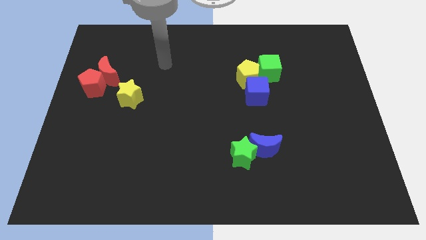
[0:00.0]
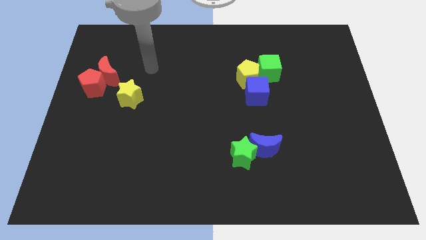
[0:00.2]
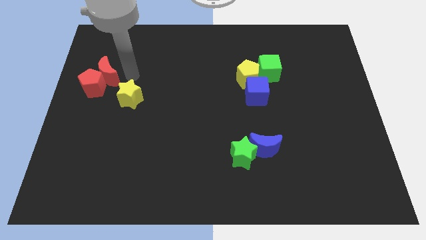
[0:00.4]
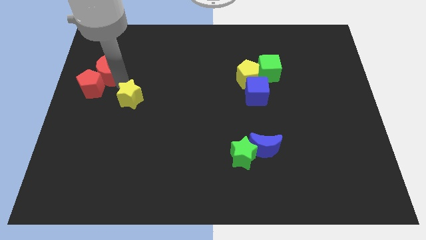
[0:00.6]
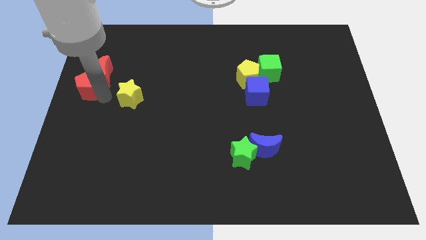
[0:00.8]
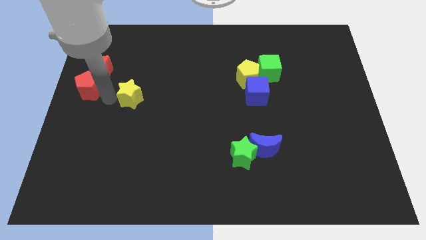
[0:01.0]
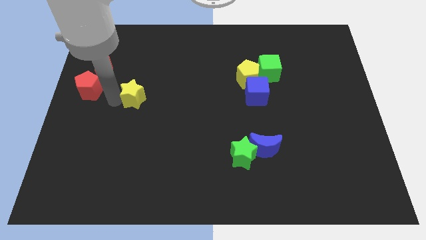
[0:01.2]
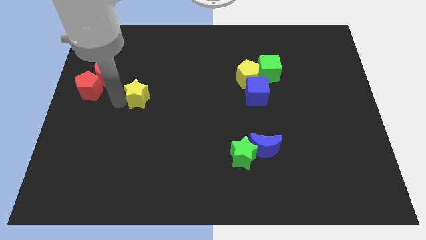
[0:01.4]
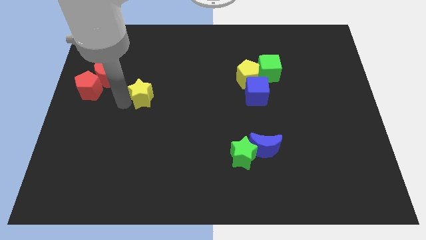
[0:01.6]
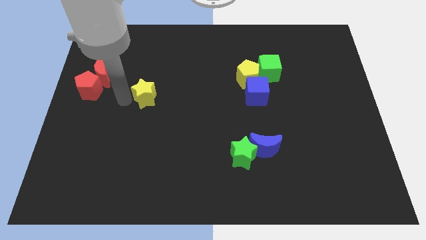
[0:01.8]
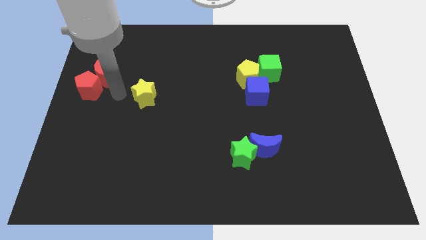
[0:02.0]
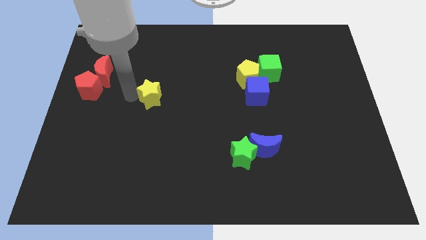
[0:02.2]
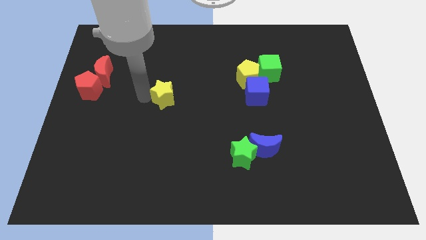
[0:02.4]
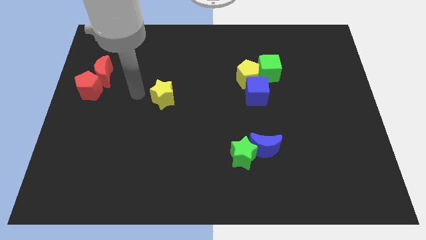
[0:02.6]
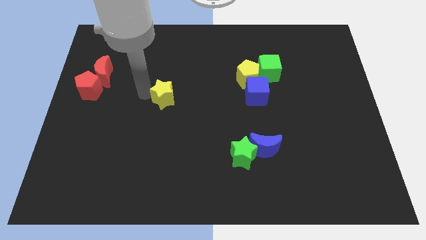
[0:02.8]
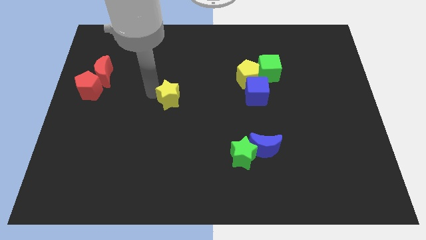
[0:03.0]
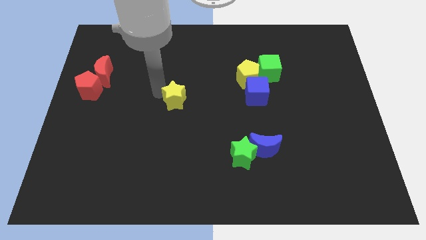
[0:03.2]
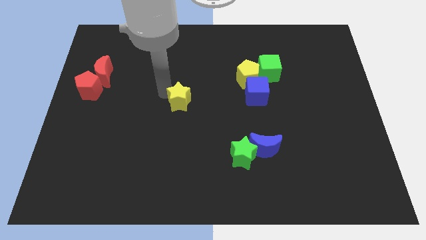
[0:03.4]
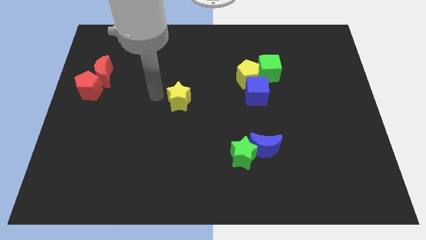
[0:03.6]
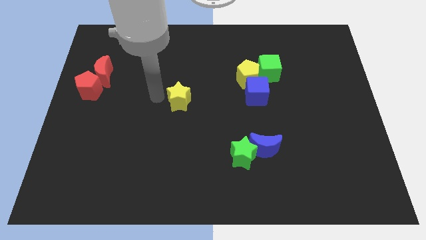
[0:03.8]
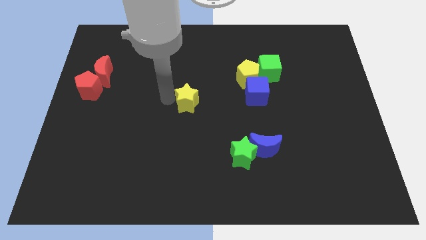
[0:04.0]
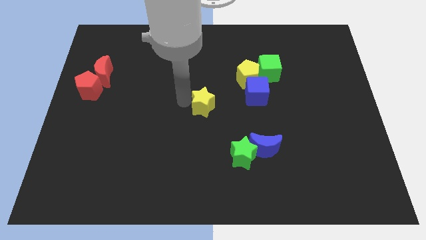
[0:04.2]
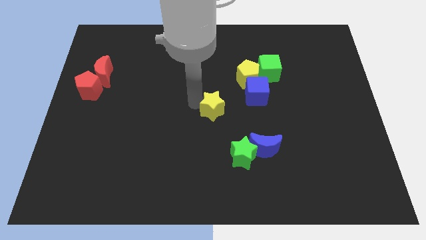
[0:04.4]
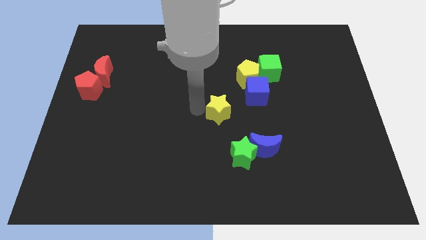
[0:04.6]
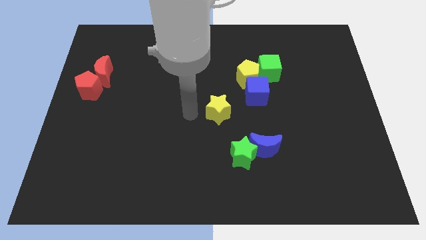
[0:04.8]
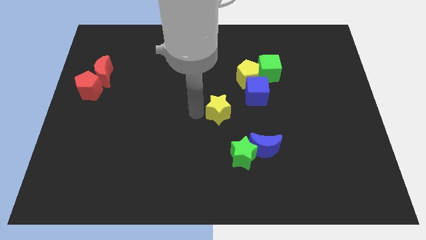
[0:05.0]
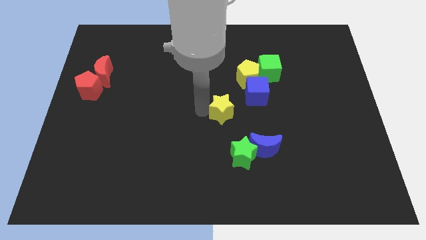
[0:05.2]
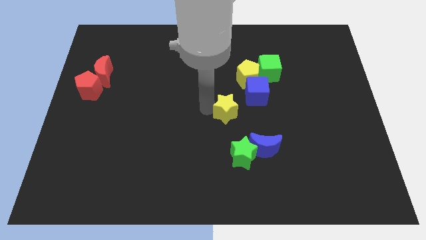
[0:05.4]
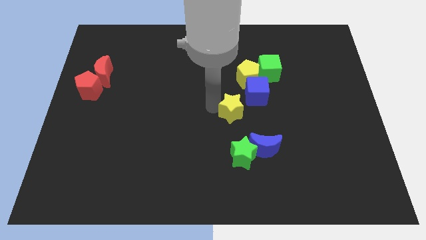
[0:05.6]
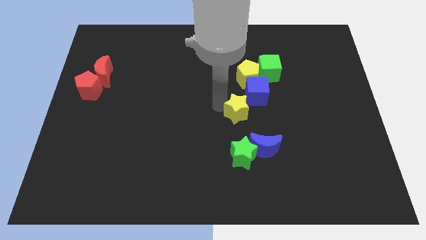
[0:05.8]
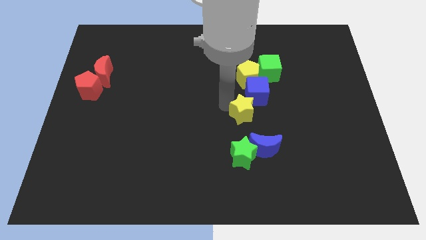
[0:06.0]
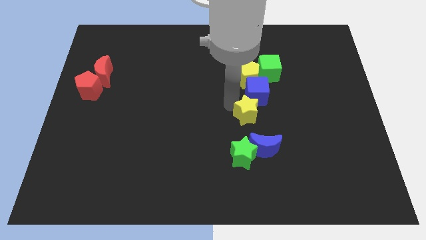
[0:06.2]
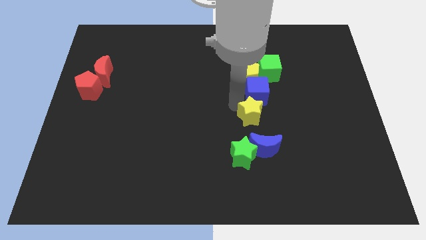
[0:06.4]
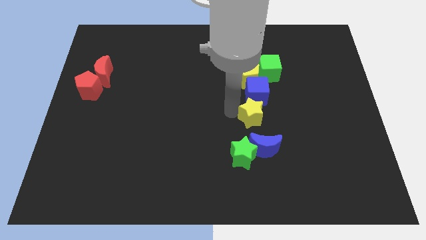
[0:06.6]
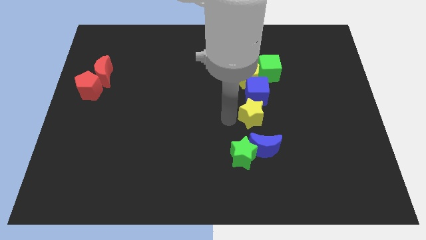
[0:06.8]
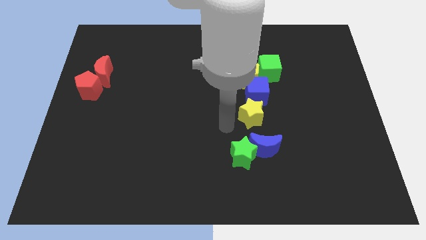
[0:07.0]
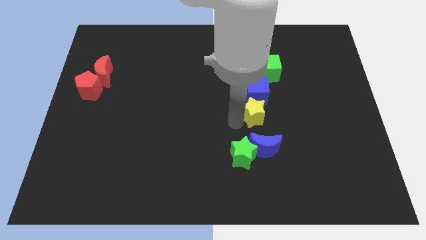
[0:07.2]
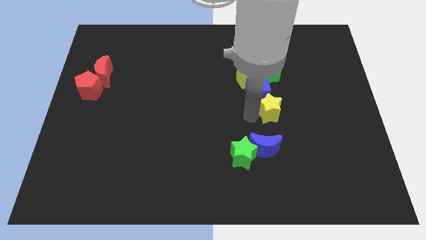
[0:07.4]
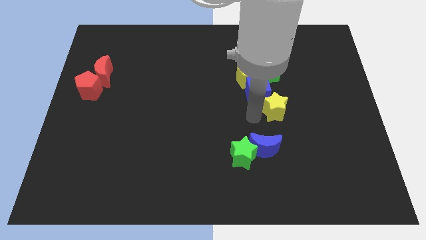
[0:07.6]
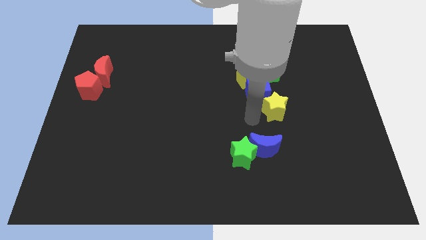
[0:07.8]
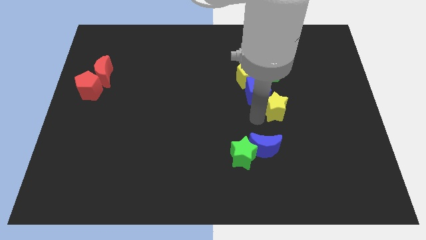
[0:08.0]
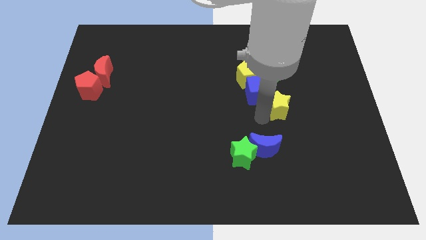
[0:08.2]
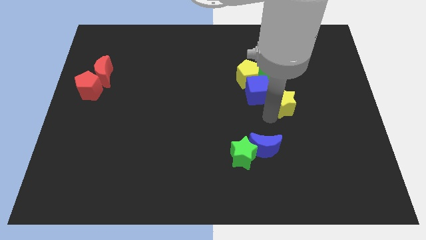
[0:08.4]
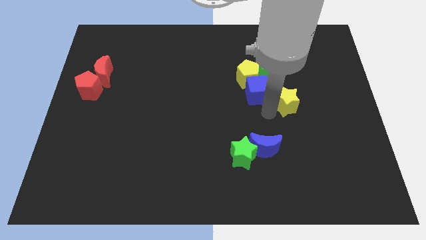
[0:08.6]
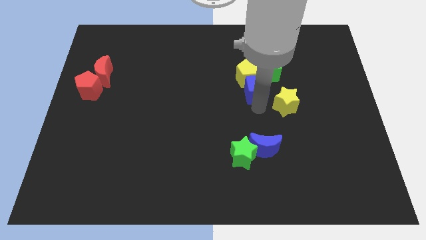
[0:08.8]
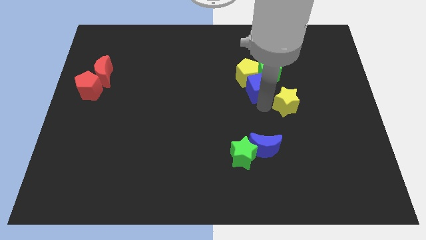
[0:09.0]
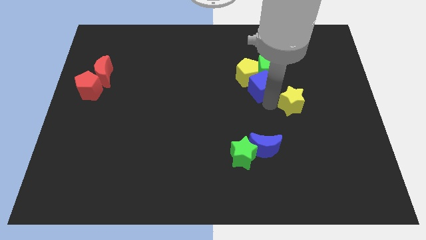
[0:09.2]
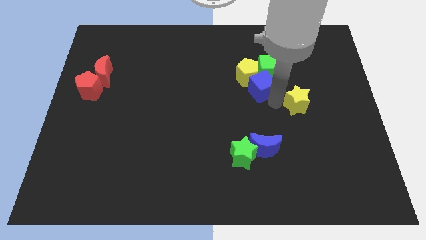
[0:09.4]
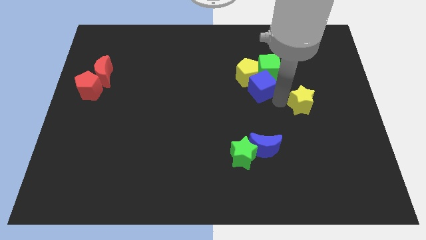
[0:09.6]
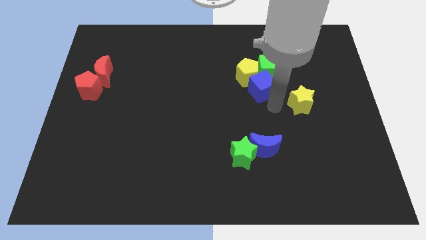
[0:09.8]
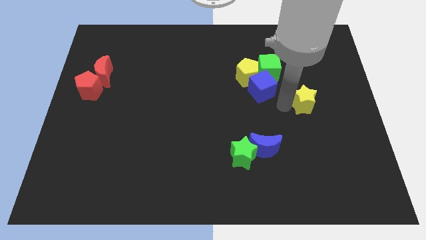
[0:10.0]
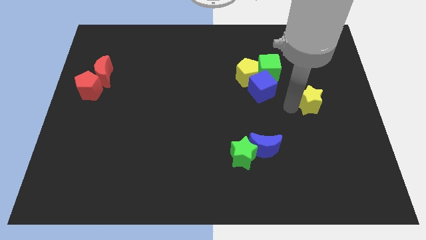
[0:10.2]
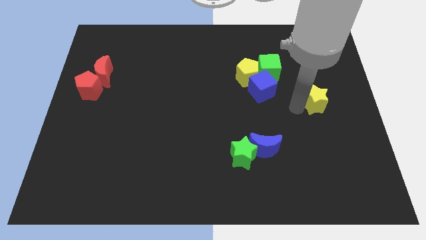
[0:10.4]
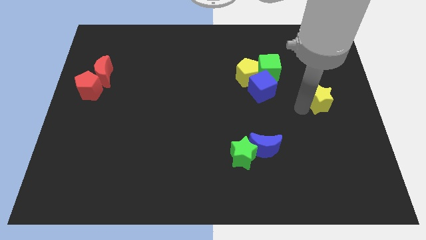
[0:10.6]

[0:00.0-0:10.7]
move the yellow star to the right side of the board

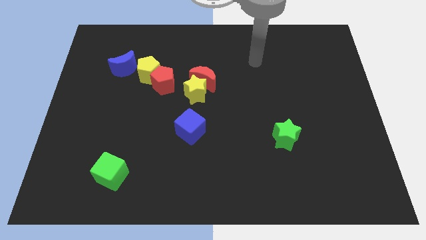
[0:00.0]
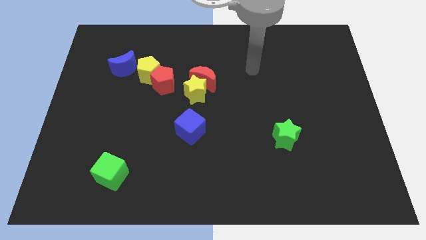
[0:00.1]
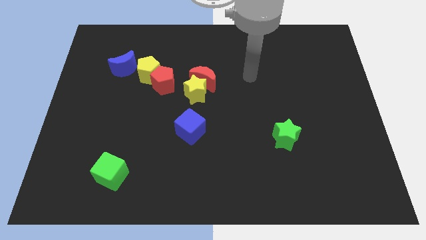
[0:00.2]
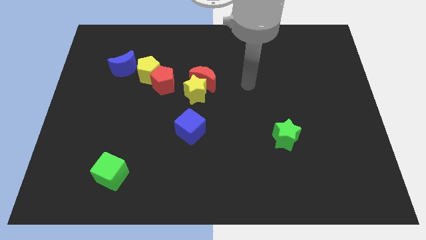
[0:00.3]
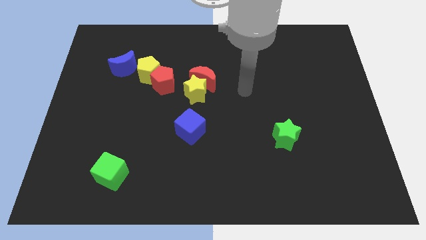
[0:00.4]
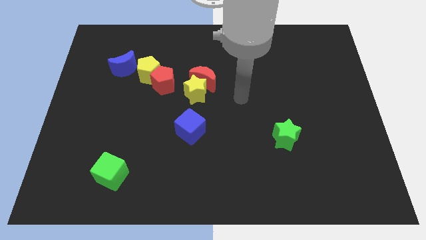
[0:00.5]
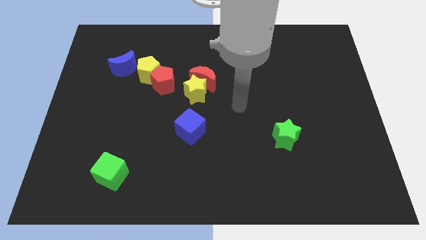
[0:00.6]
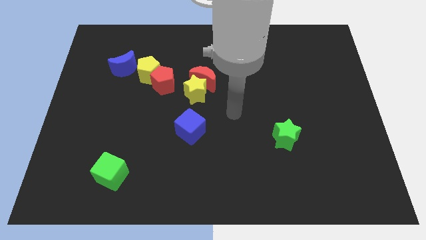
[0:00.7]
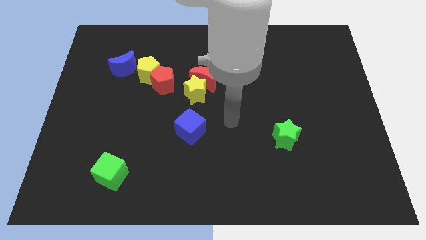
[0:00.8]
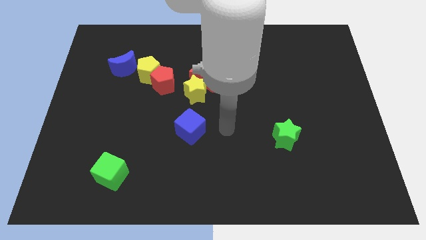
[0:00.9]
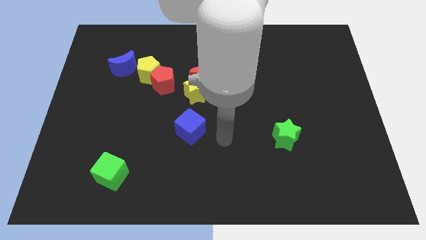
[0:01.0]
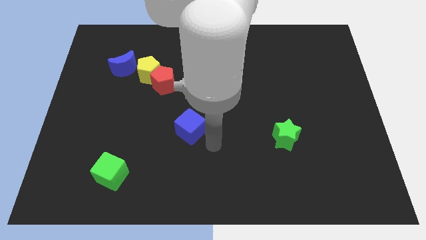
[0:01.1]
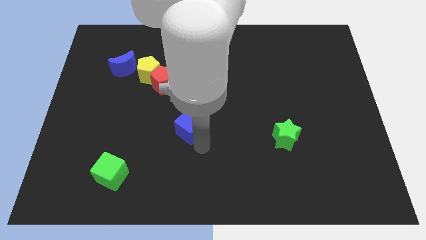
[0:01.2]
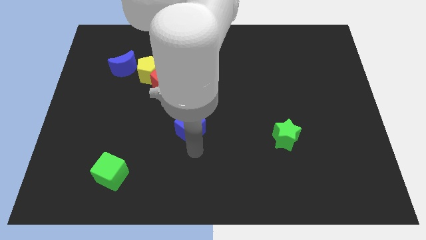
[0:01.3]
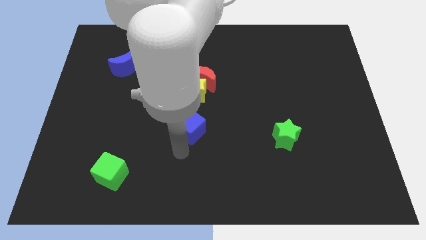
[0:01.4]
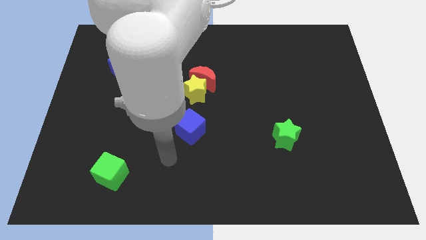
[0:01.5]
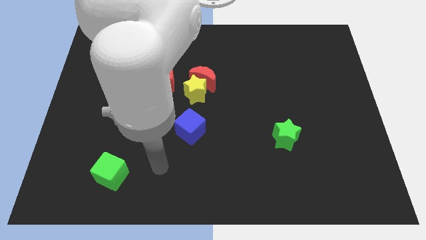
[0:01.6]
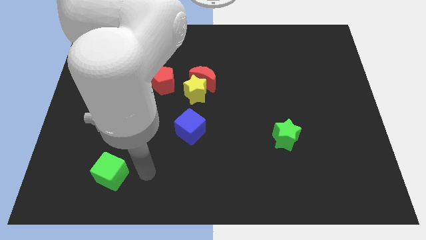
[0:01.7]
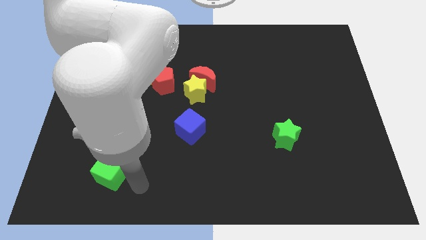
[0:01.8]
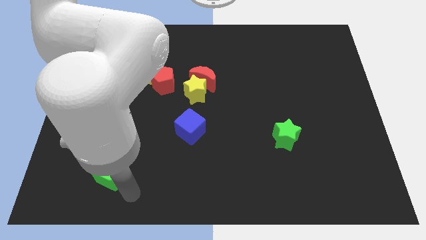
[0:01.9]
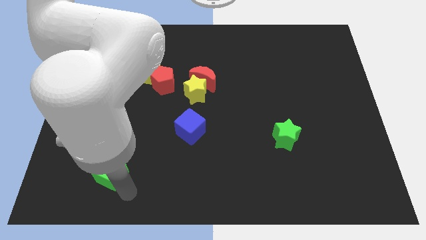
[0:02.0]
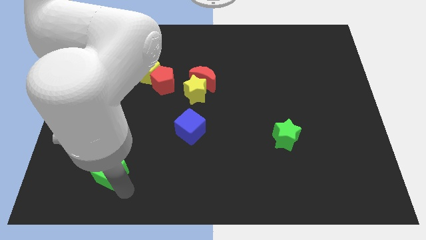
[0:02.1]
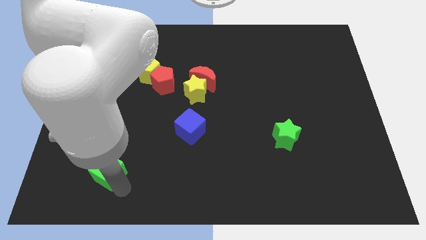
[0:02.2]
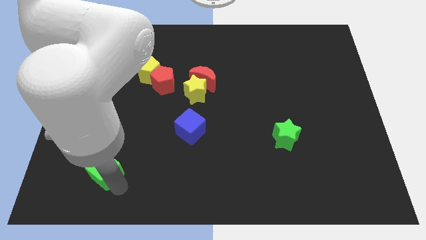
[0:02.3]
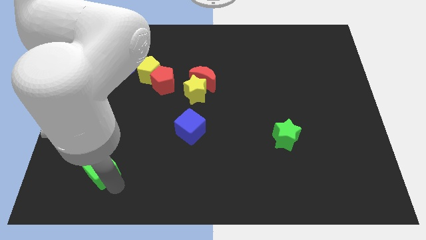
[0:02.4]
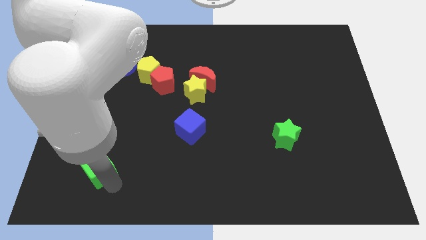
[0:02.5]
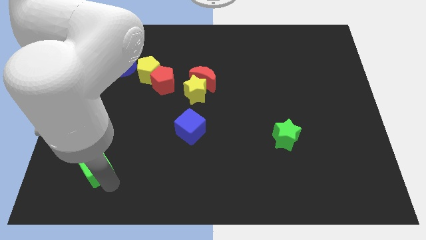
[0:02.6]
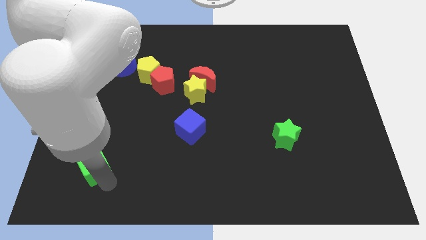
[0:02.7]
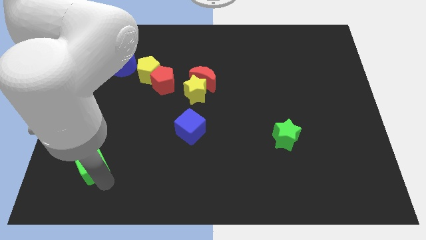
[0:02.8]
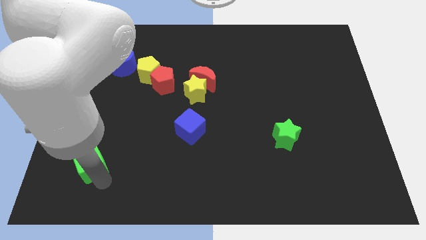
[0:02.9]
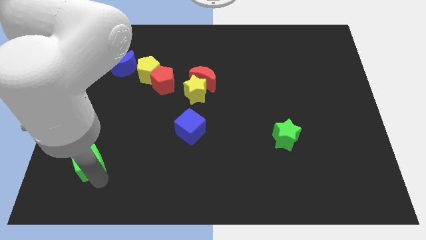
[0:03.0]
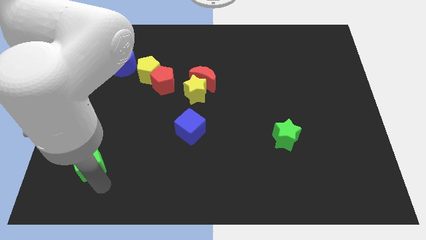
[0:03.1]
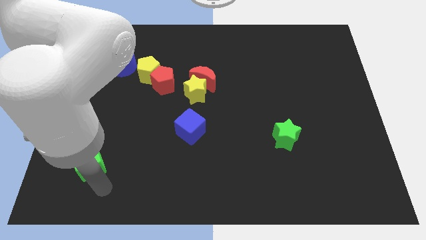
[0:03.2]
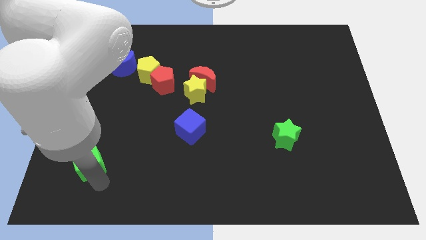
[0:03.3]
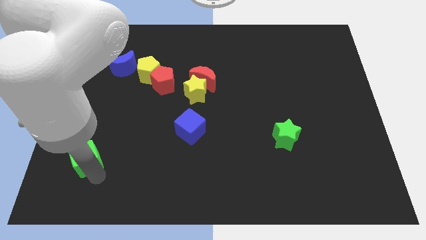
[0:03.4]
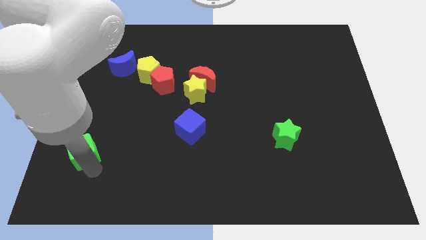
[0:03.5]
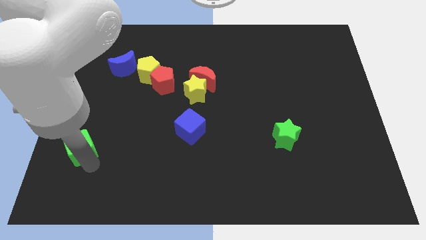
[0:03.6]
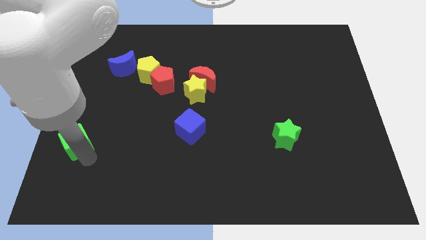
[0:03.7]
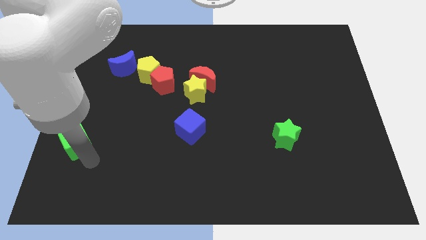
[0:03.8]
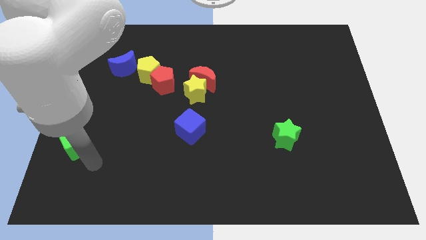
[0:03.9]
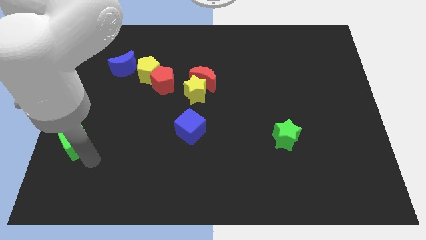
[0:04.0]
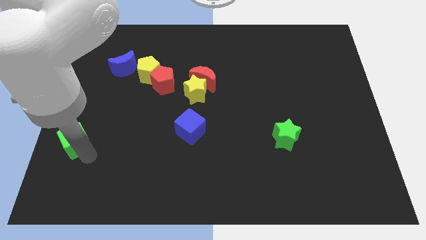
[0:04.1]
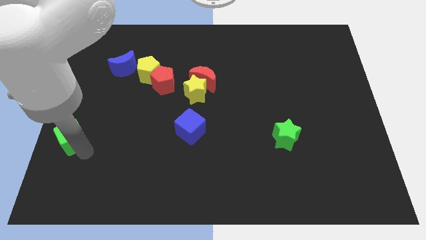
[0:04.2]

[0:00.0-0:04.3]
put the green cube to the center left
